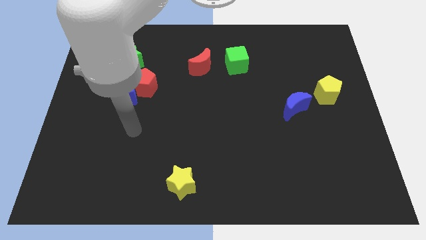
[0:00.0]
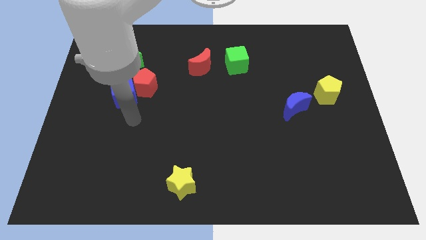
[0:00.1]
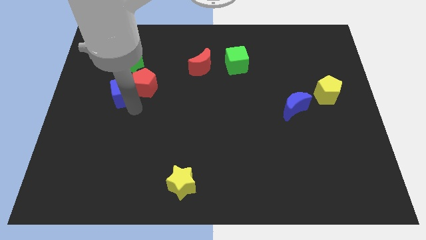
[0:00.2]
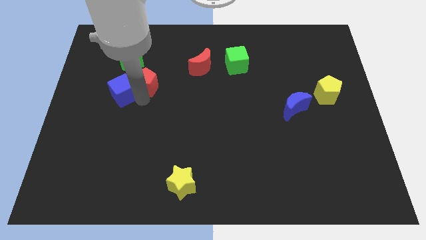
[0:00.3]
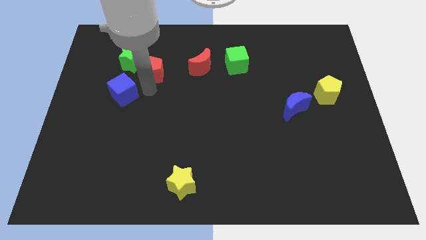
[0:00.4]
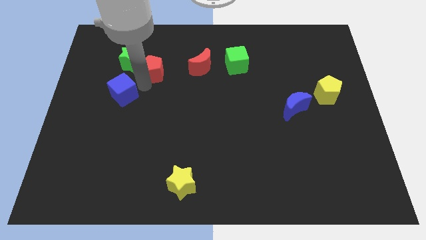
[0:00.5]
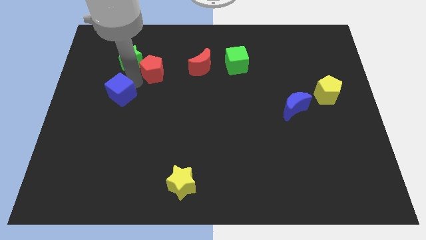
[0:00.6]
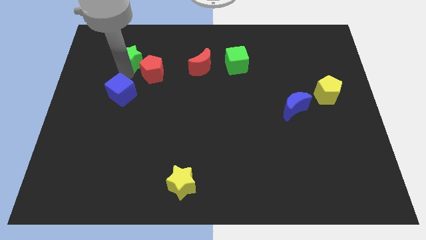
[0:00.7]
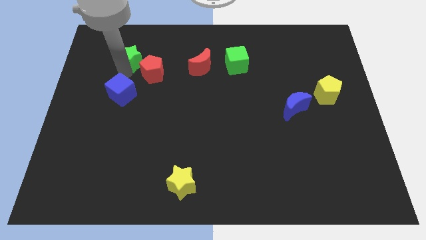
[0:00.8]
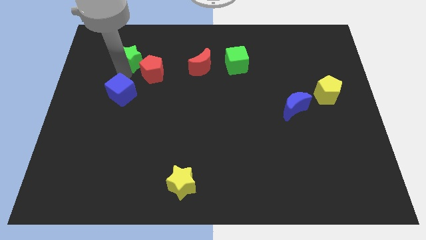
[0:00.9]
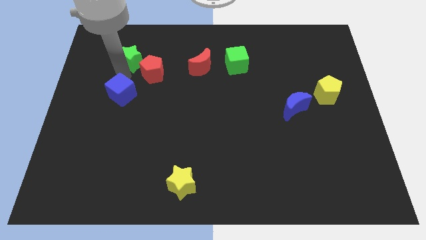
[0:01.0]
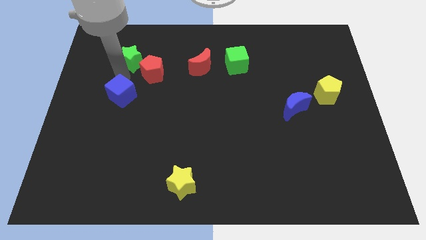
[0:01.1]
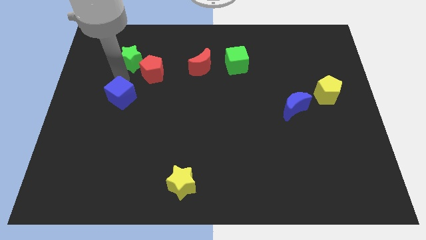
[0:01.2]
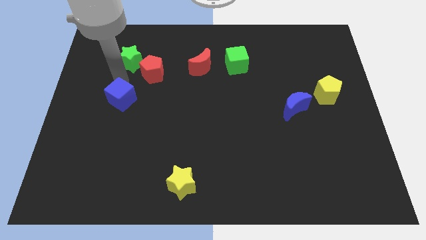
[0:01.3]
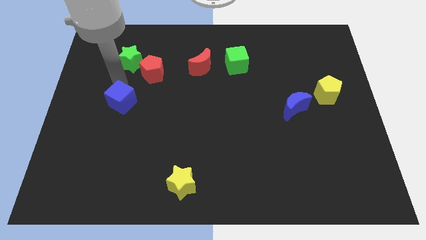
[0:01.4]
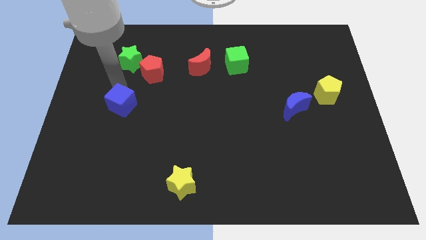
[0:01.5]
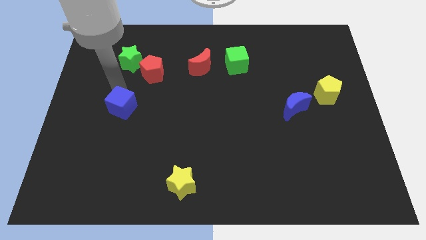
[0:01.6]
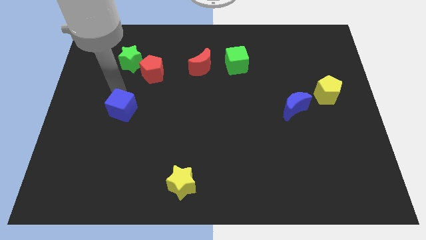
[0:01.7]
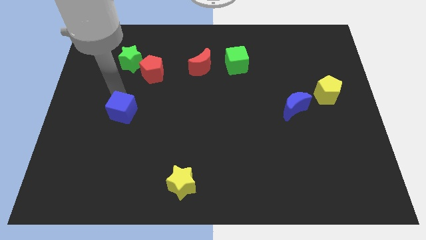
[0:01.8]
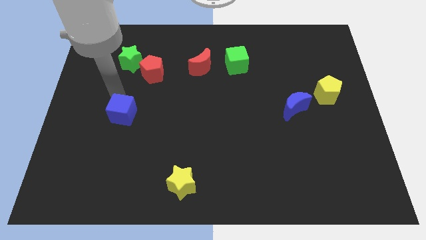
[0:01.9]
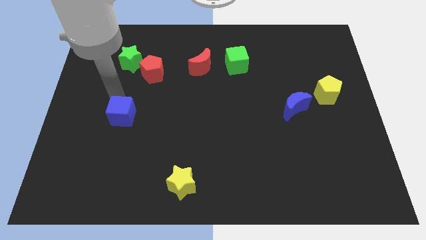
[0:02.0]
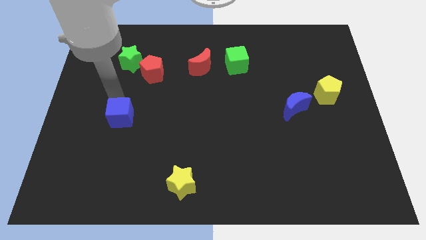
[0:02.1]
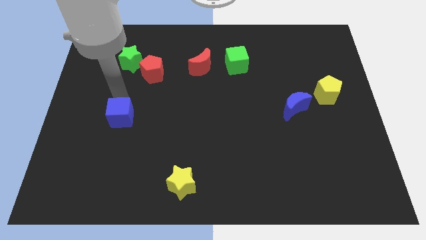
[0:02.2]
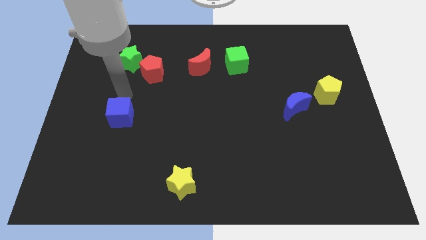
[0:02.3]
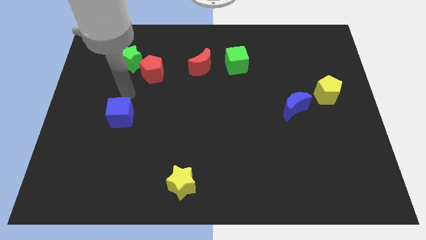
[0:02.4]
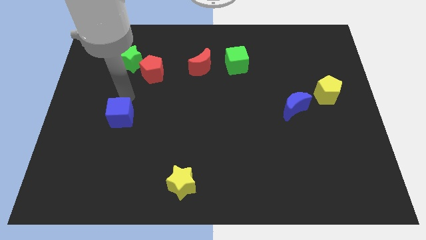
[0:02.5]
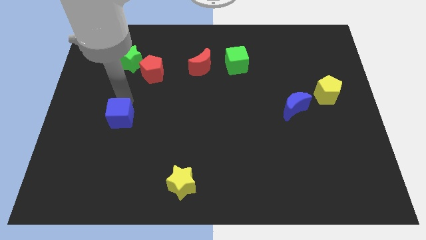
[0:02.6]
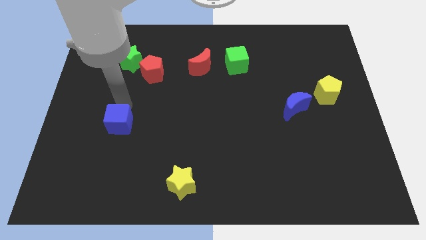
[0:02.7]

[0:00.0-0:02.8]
push the blue cube downwards a bit

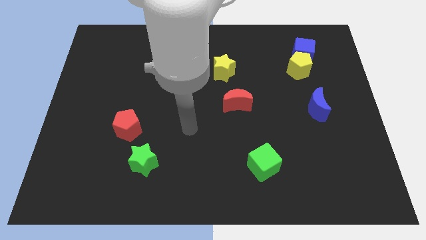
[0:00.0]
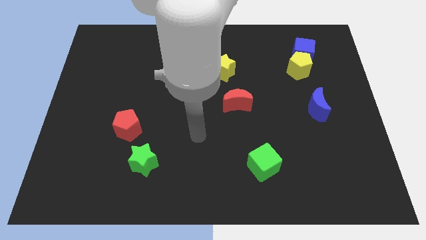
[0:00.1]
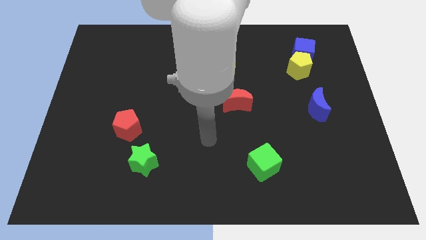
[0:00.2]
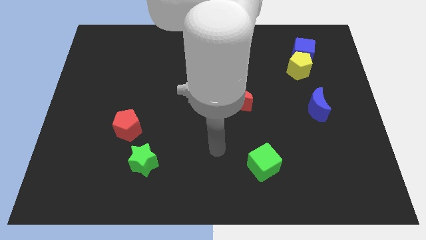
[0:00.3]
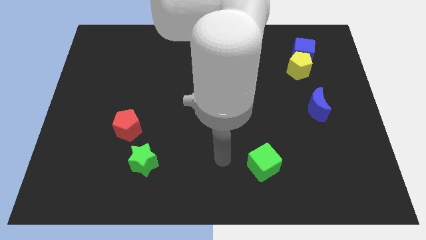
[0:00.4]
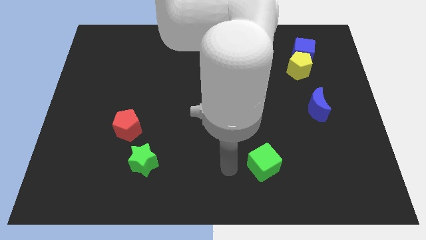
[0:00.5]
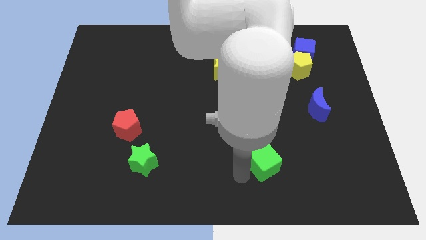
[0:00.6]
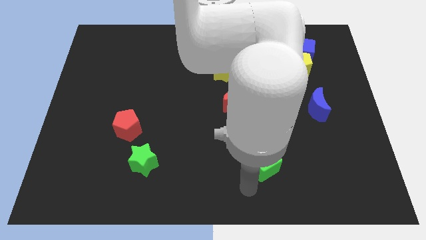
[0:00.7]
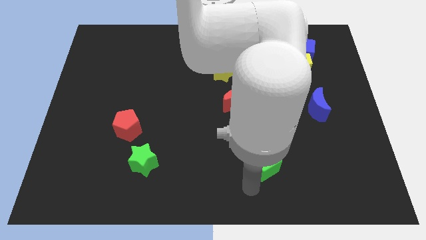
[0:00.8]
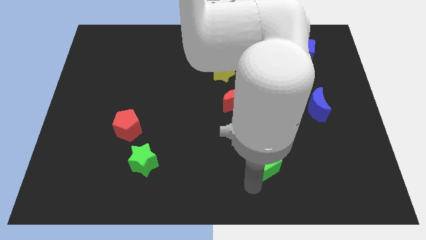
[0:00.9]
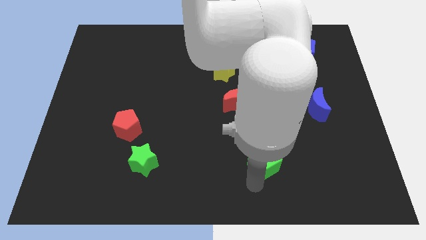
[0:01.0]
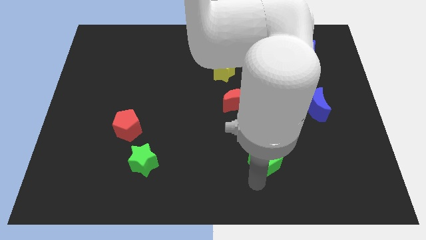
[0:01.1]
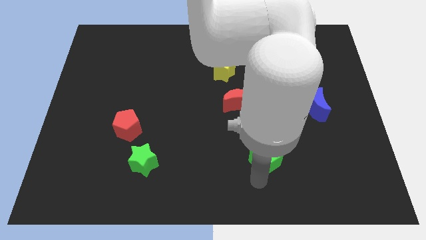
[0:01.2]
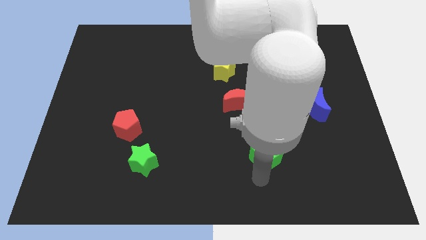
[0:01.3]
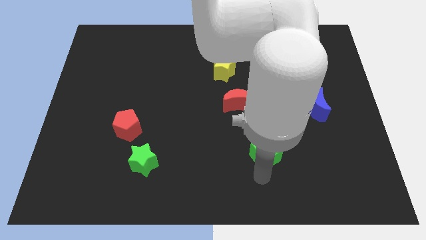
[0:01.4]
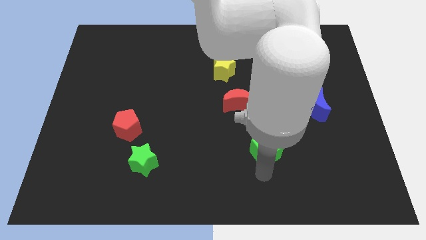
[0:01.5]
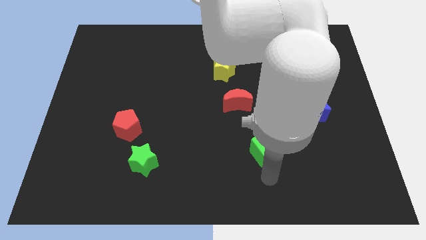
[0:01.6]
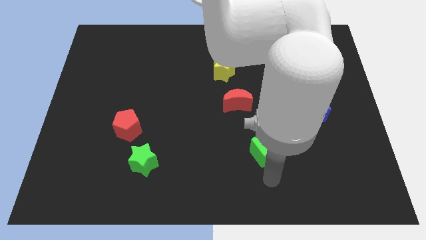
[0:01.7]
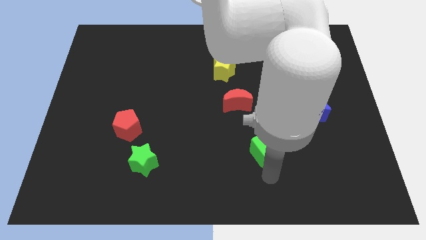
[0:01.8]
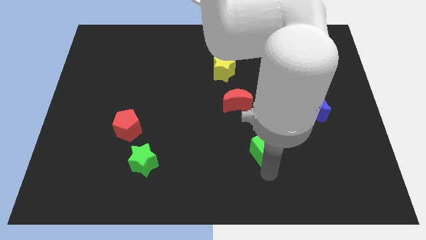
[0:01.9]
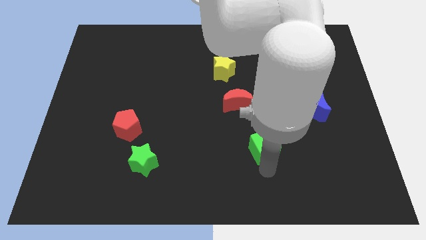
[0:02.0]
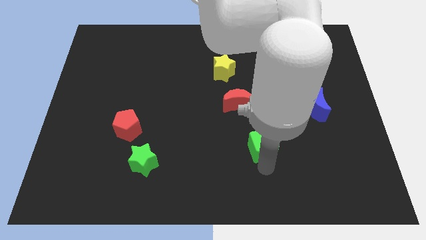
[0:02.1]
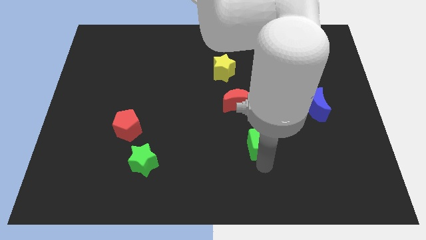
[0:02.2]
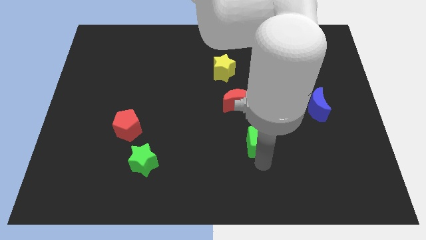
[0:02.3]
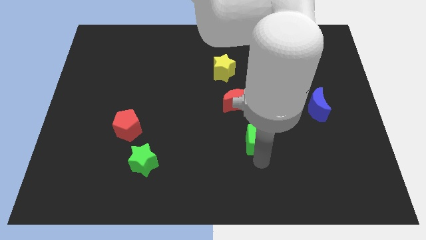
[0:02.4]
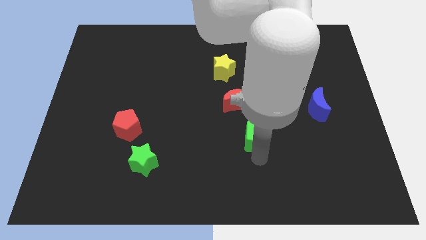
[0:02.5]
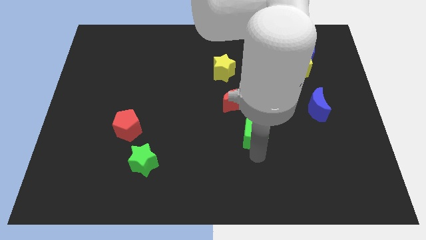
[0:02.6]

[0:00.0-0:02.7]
slide the green cube slightly up

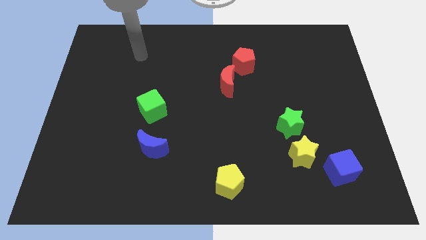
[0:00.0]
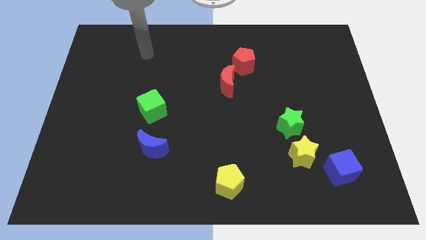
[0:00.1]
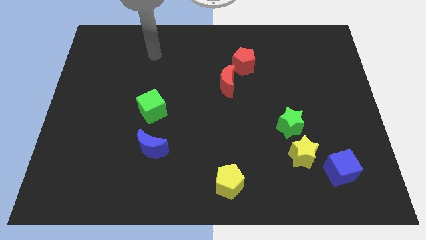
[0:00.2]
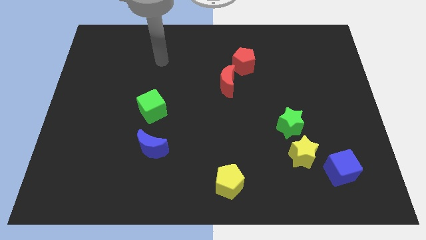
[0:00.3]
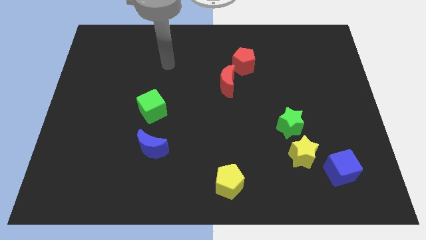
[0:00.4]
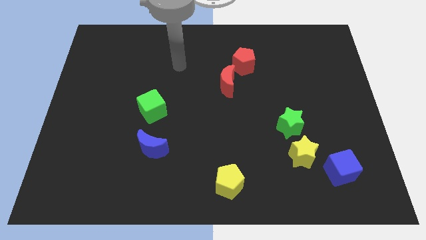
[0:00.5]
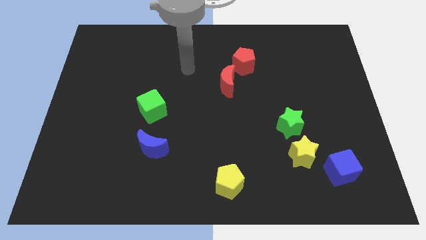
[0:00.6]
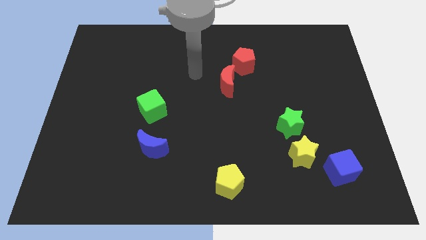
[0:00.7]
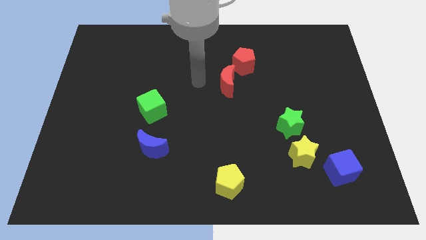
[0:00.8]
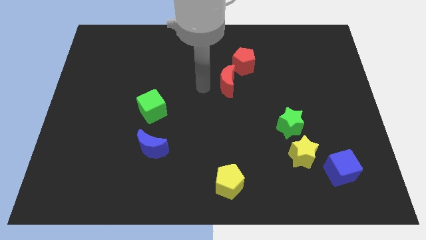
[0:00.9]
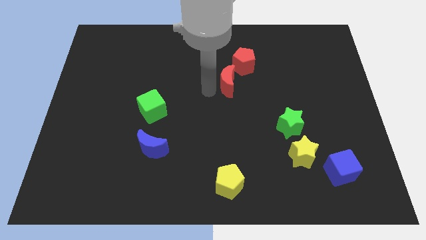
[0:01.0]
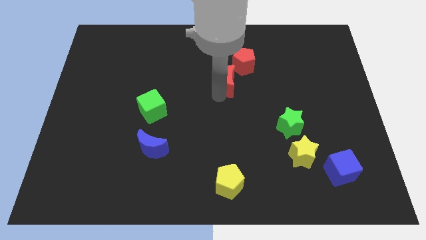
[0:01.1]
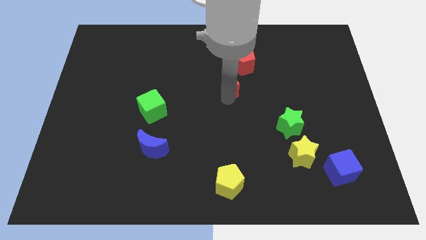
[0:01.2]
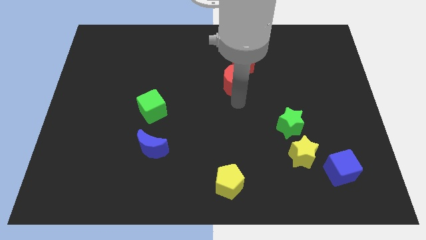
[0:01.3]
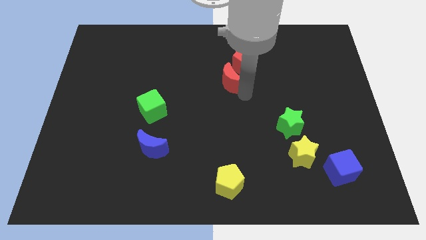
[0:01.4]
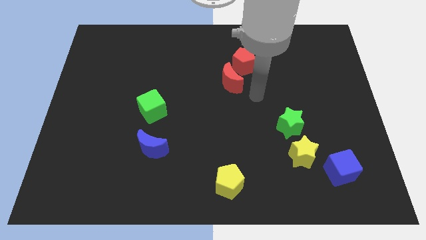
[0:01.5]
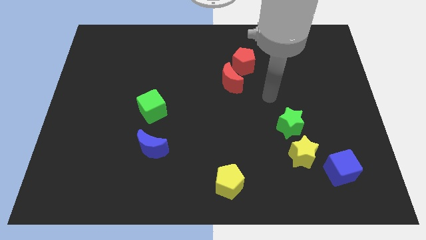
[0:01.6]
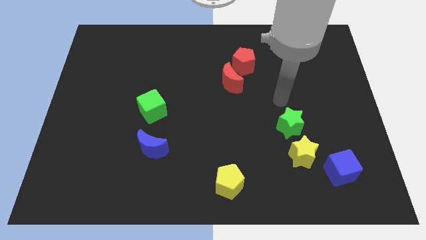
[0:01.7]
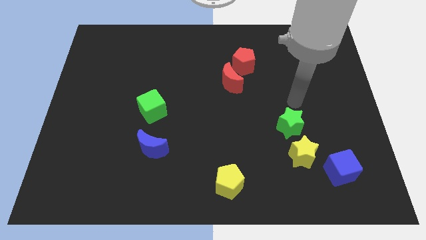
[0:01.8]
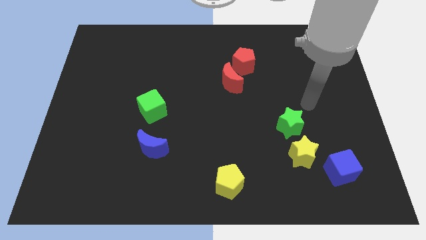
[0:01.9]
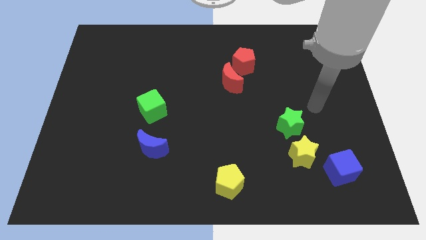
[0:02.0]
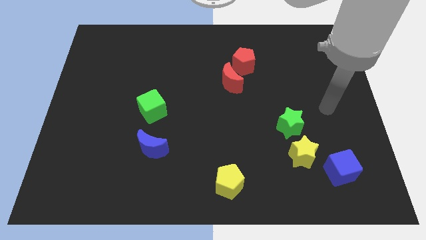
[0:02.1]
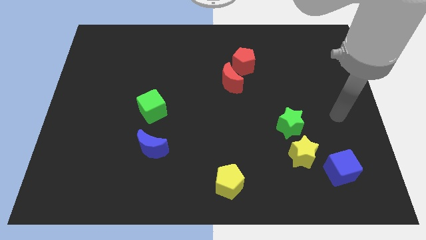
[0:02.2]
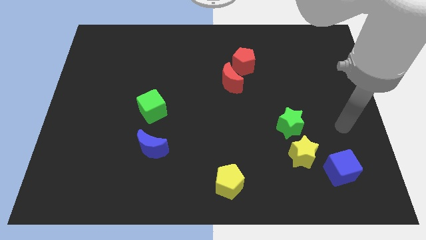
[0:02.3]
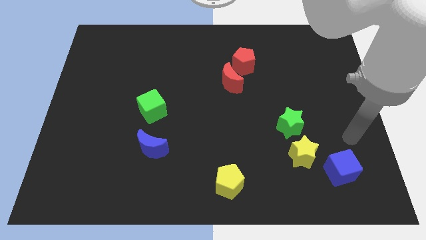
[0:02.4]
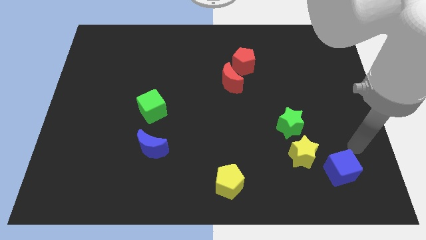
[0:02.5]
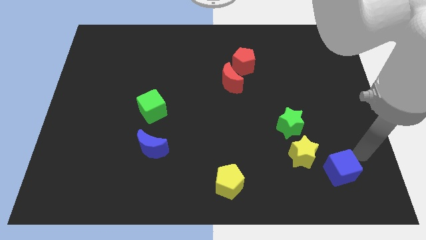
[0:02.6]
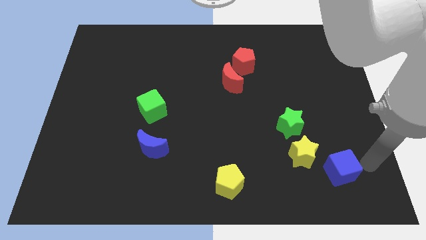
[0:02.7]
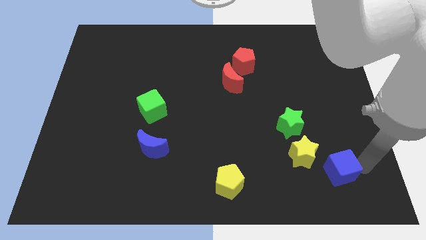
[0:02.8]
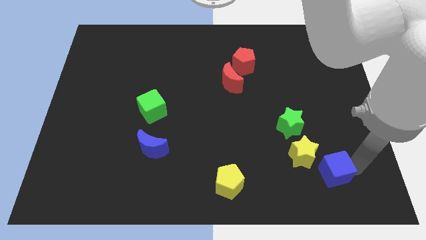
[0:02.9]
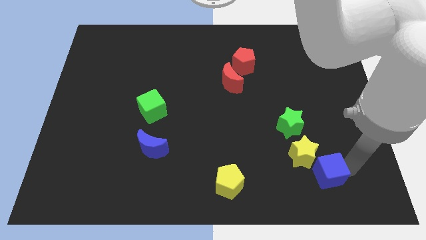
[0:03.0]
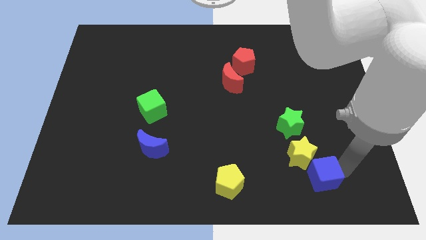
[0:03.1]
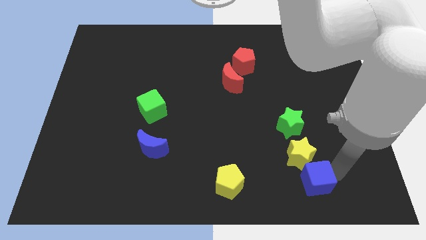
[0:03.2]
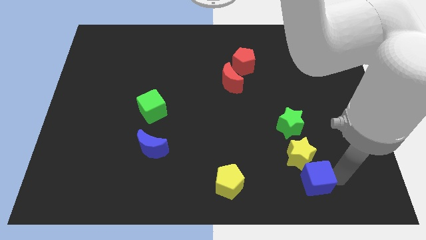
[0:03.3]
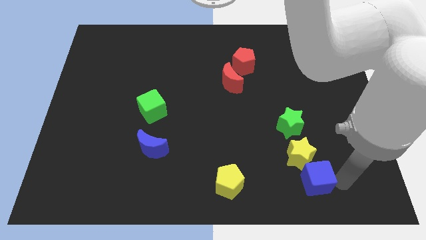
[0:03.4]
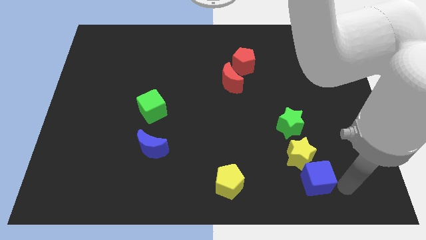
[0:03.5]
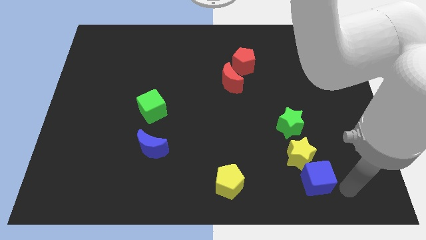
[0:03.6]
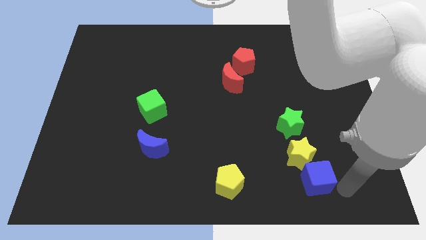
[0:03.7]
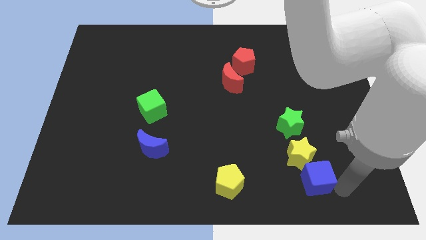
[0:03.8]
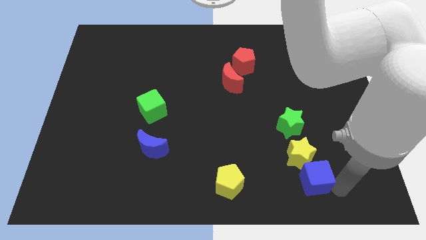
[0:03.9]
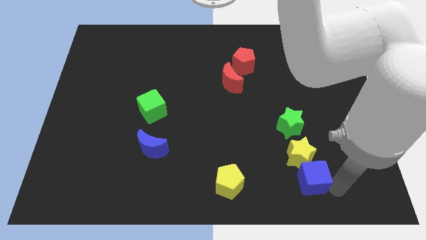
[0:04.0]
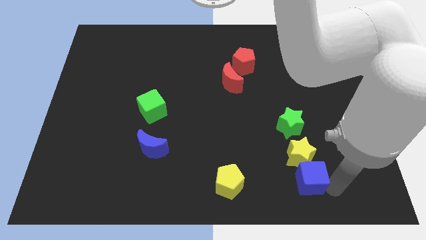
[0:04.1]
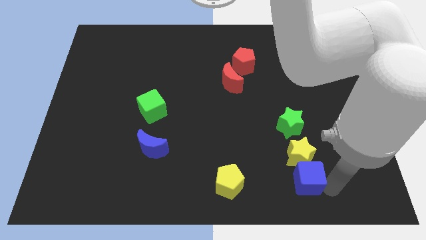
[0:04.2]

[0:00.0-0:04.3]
push the blue cube left a bit
